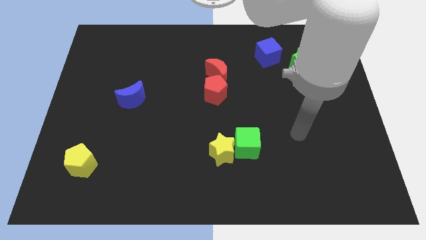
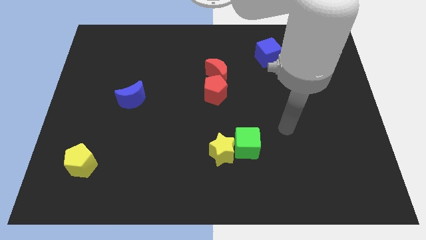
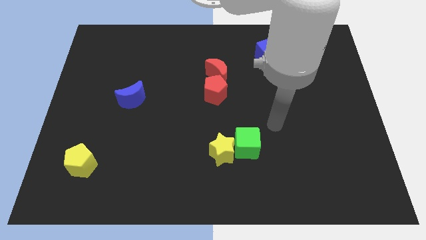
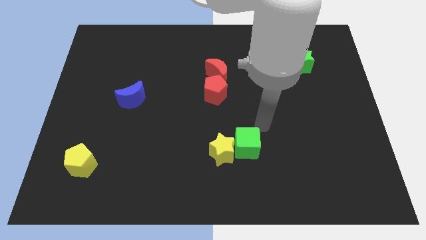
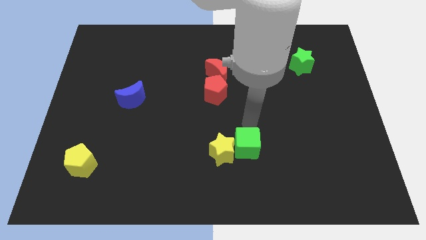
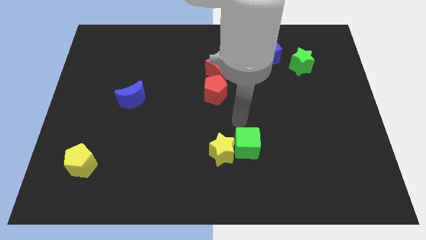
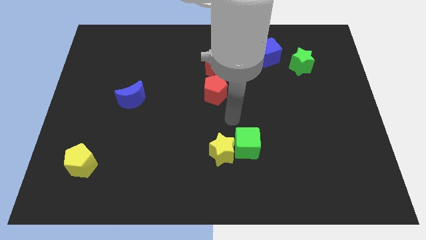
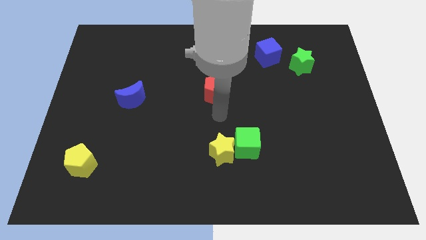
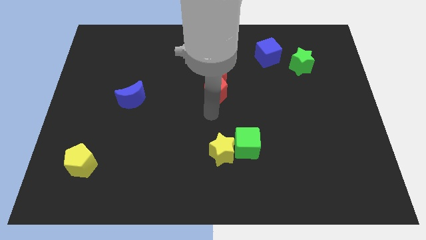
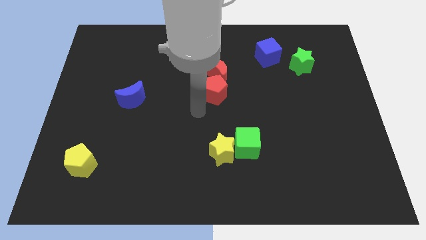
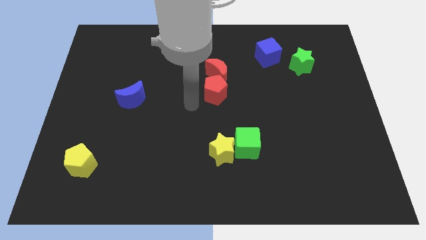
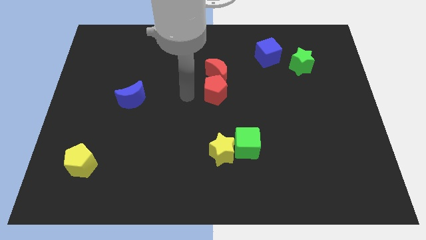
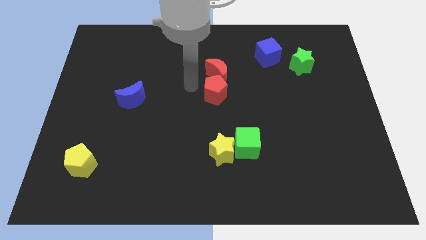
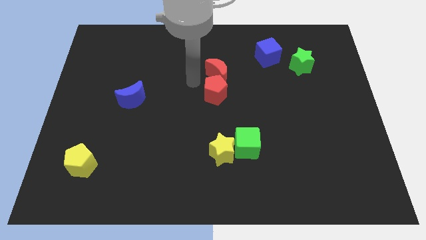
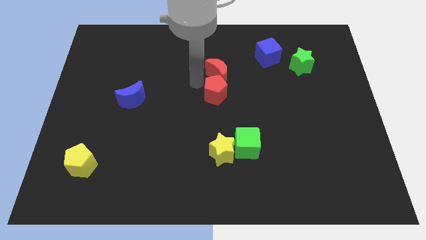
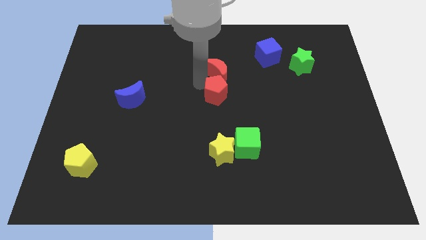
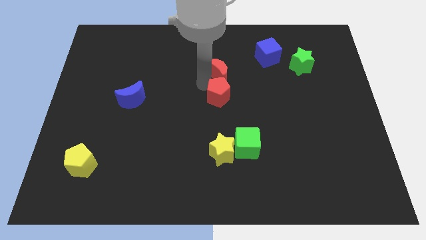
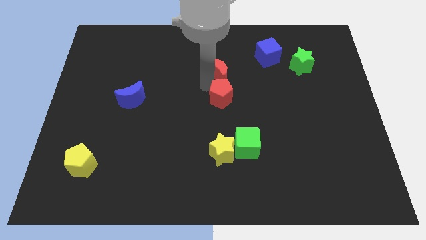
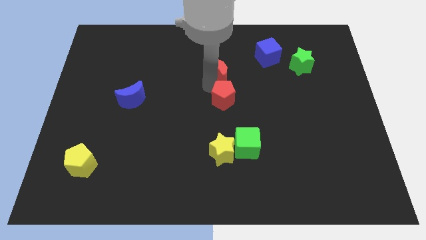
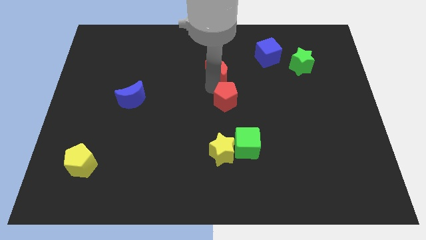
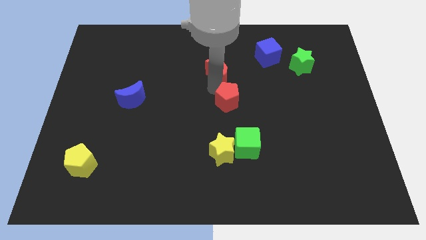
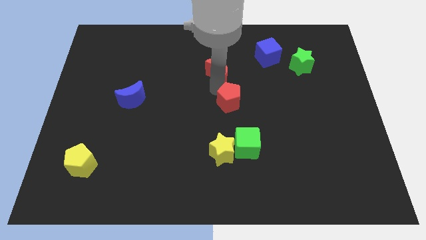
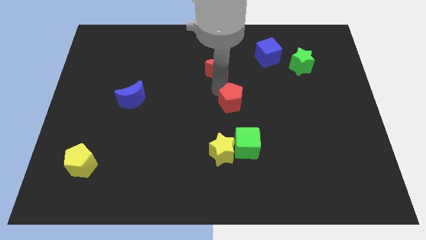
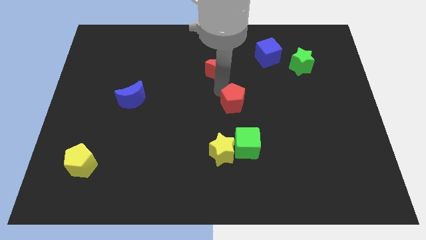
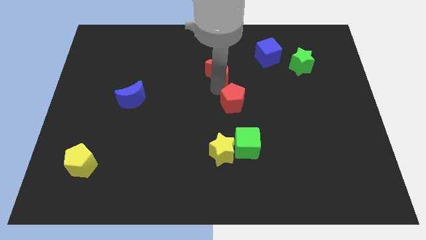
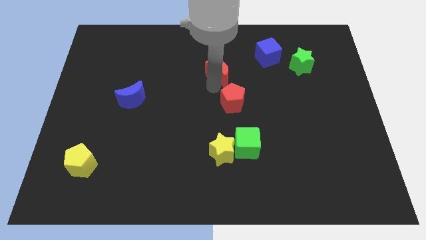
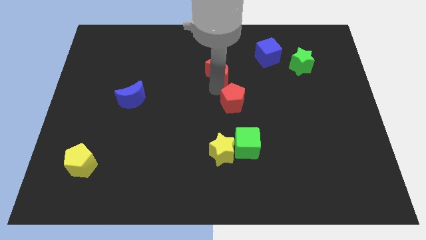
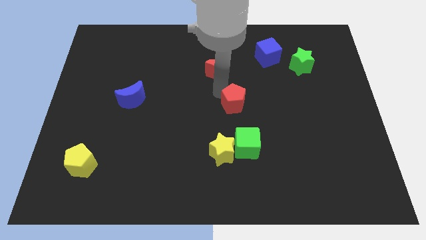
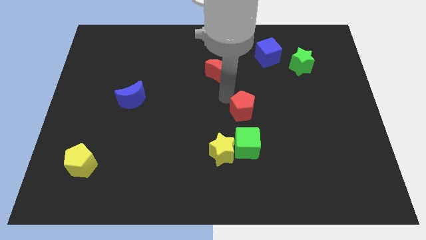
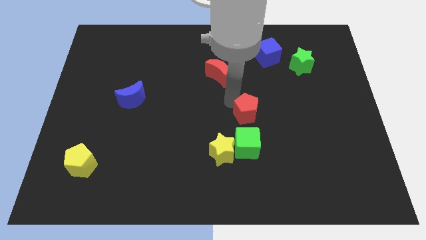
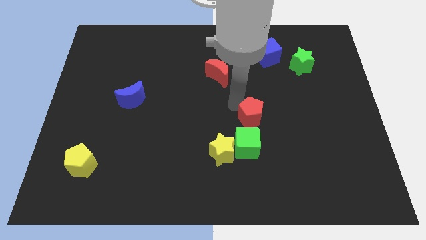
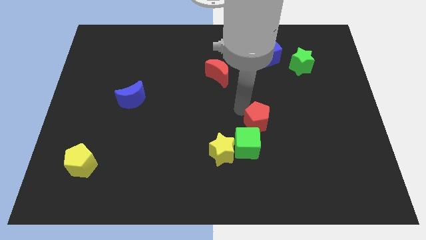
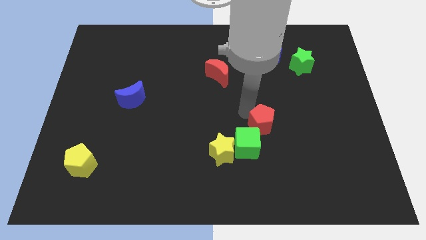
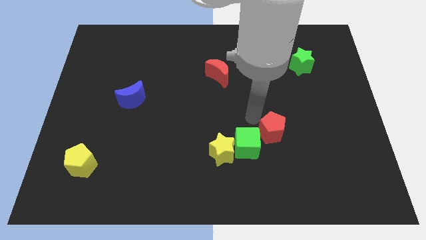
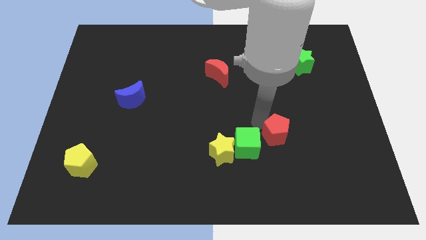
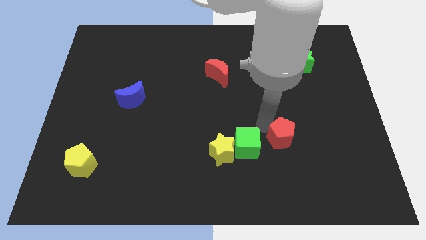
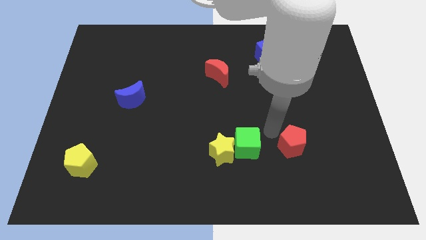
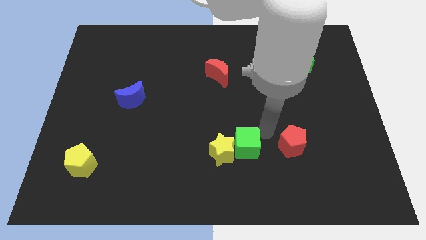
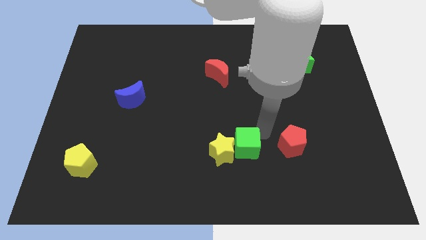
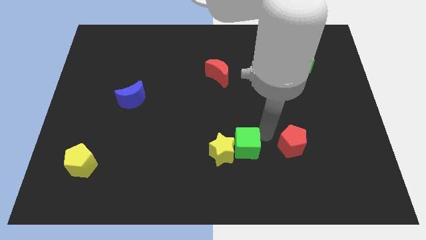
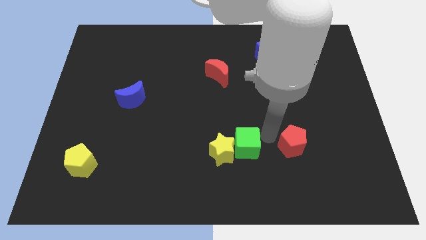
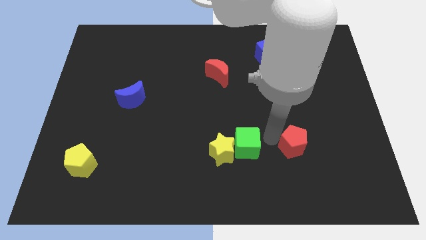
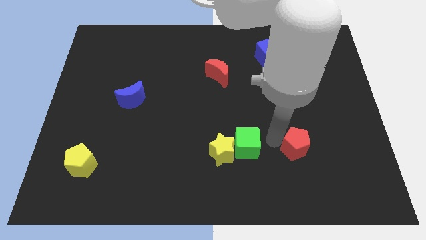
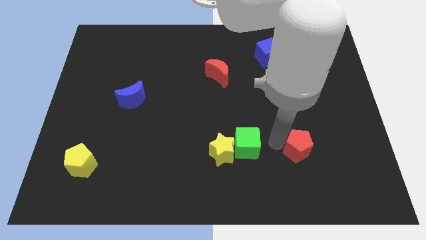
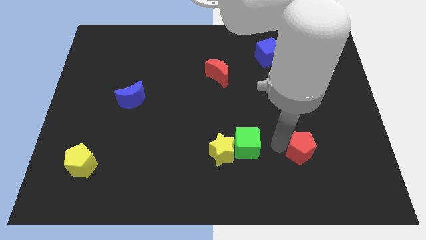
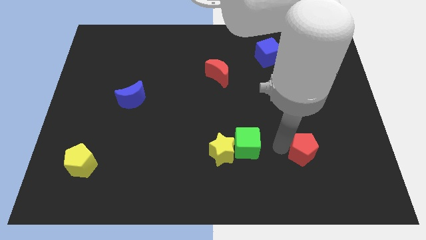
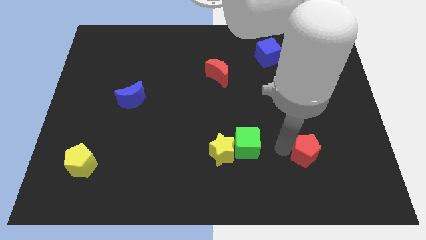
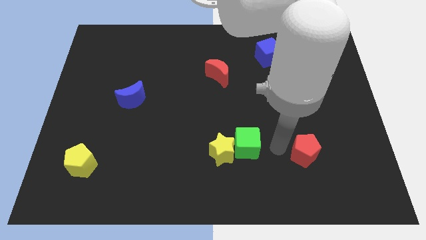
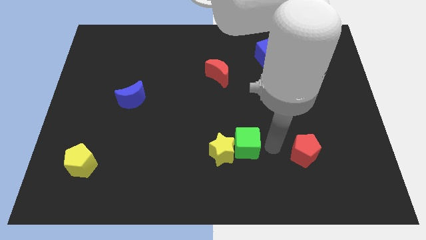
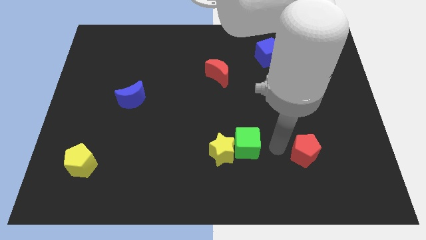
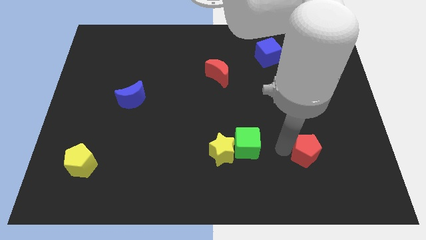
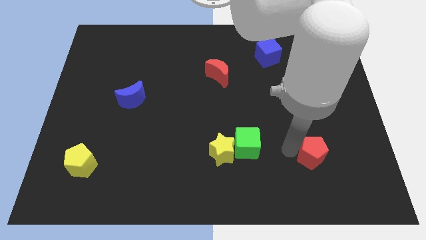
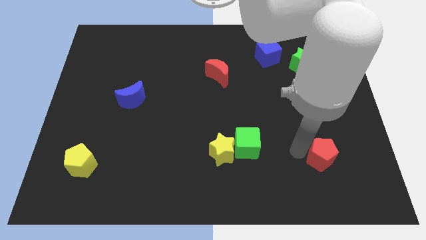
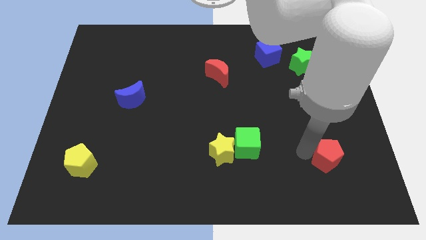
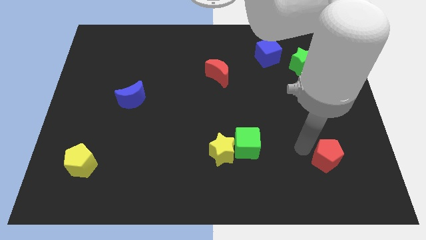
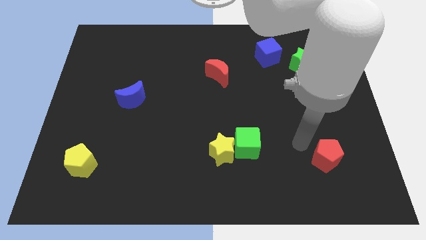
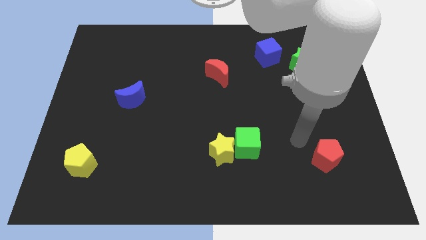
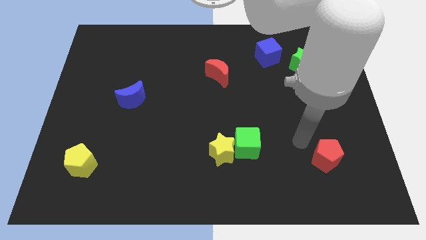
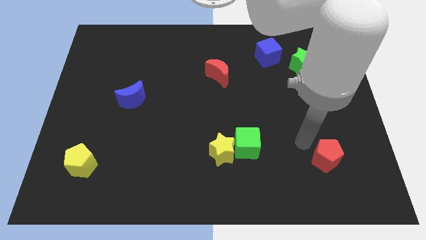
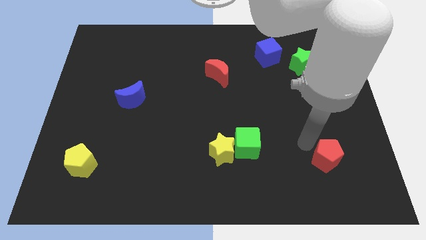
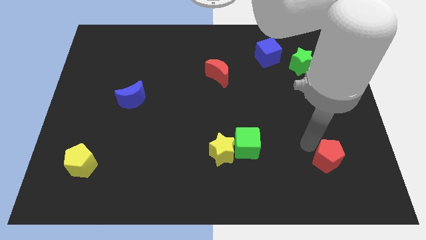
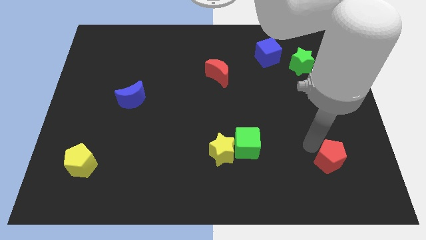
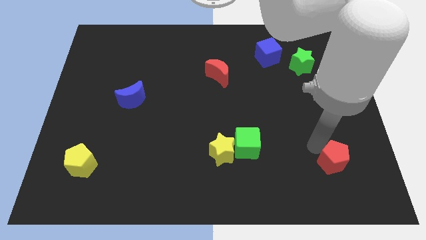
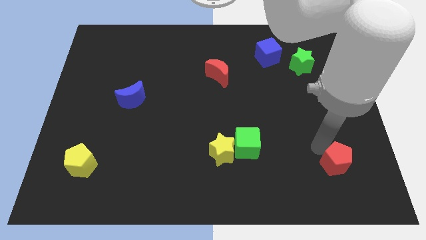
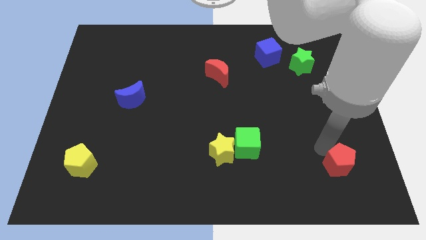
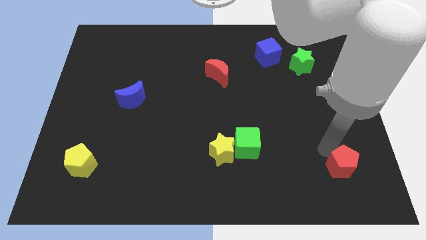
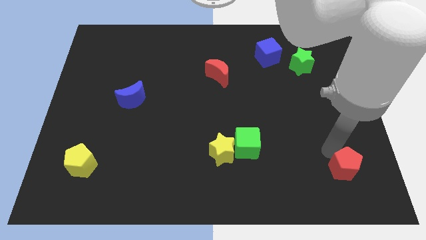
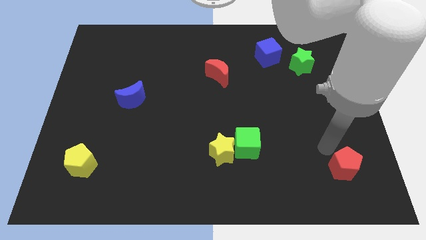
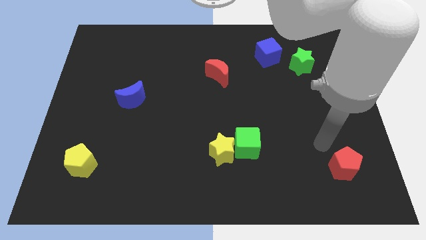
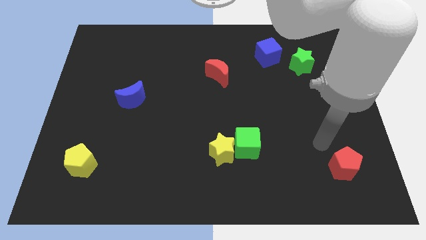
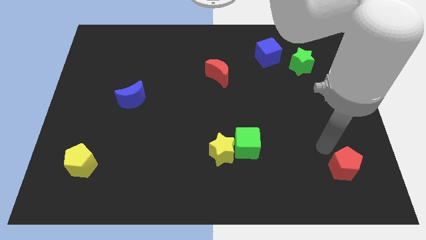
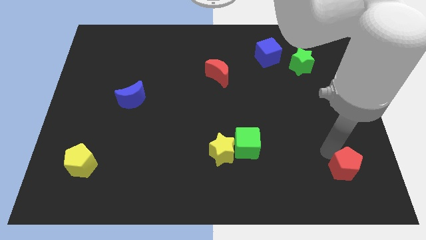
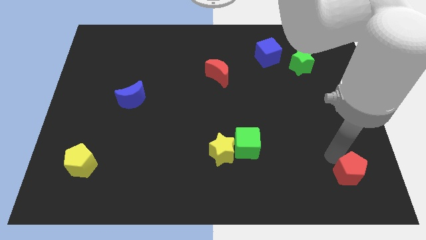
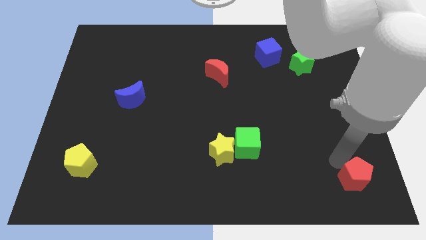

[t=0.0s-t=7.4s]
put the red pentagon to the bottom right
